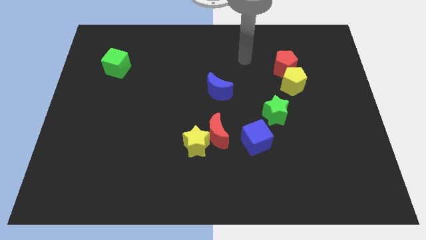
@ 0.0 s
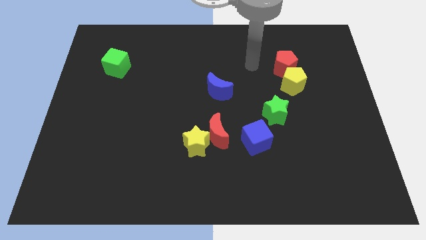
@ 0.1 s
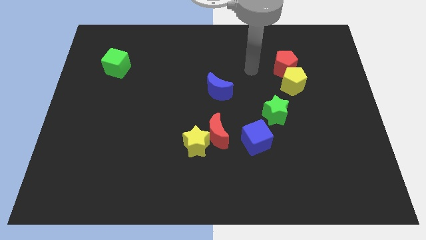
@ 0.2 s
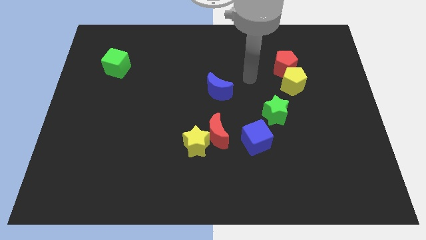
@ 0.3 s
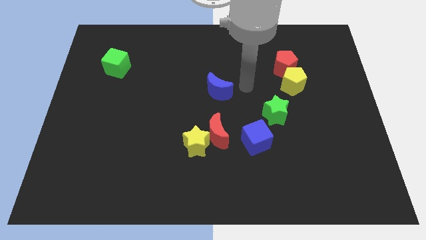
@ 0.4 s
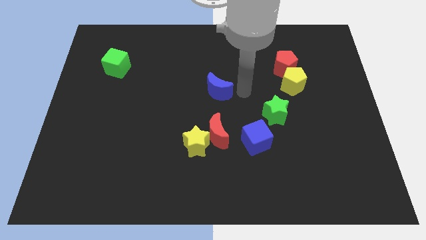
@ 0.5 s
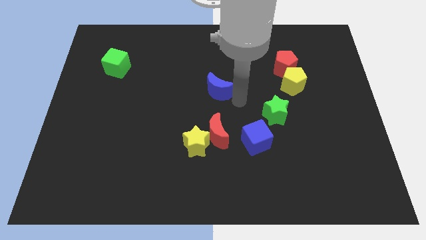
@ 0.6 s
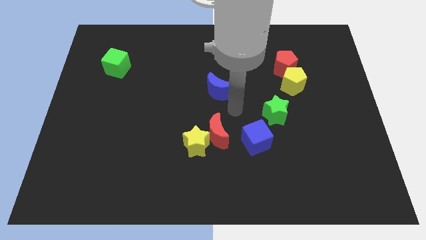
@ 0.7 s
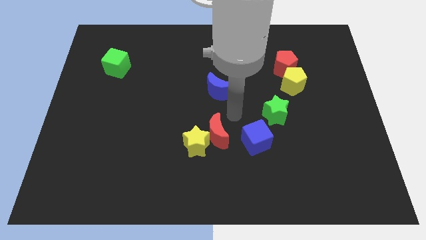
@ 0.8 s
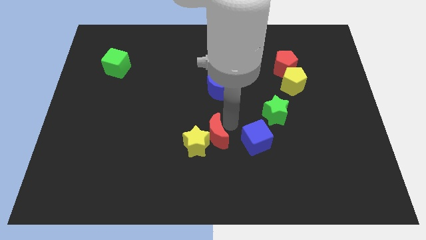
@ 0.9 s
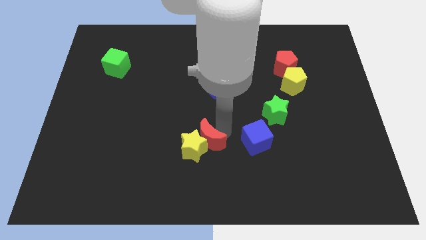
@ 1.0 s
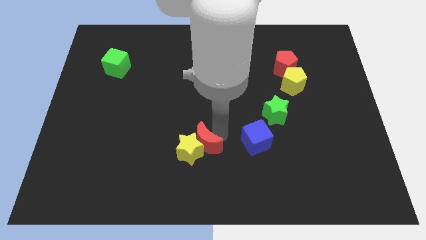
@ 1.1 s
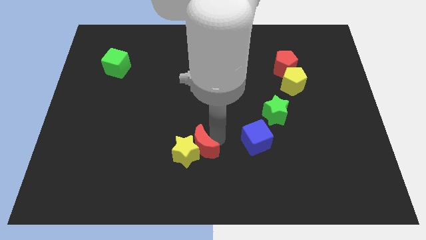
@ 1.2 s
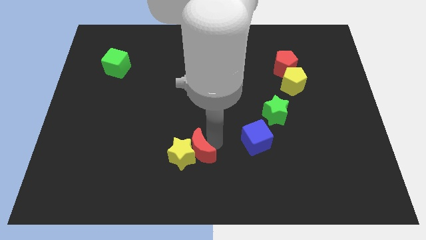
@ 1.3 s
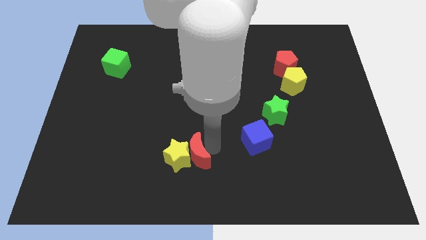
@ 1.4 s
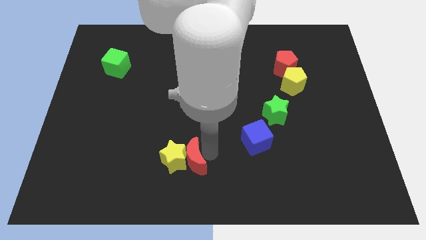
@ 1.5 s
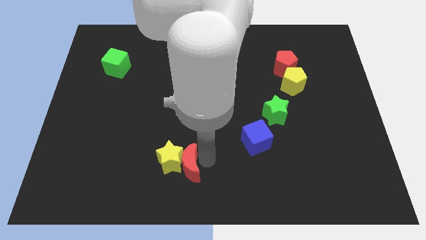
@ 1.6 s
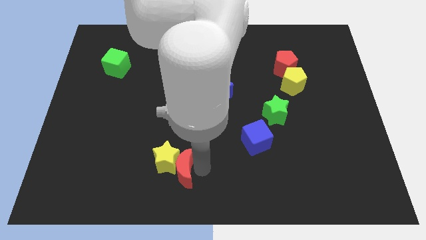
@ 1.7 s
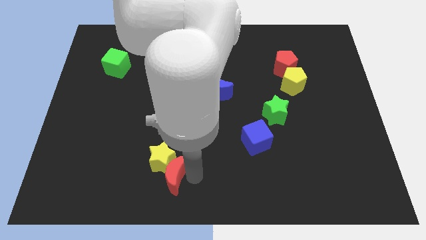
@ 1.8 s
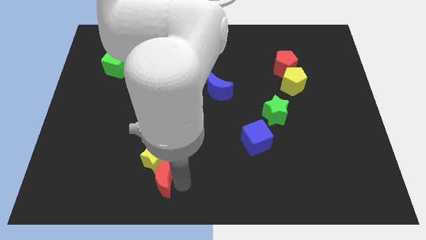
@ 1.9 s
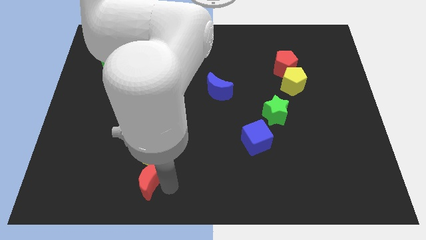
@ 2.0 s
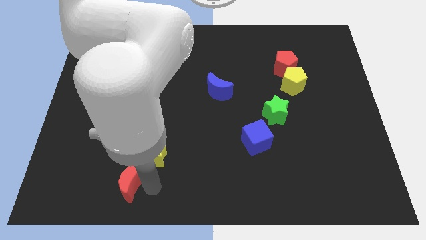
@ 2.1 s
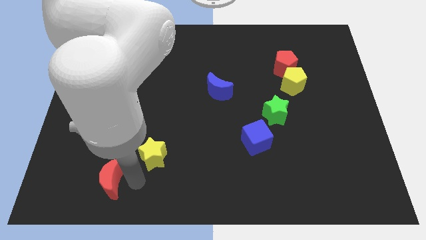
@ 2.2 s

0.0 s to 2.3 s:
pull the yellow star apart from the red moon

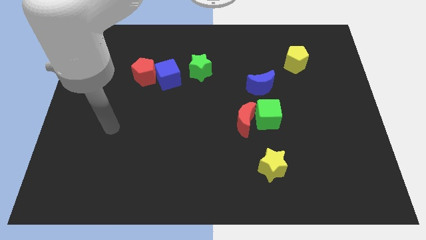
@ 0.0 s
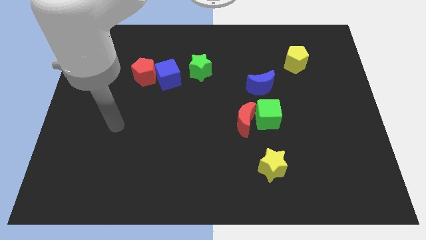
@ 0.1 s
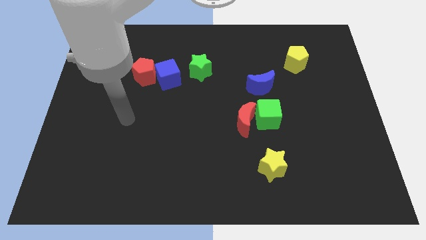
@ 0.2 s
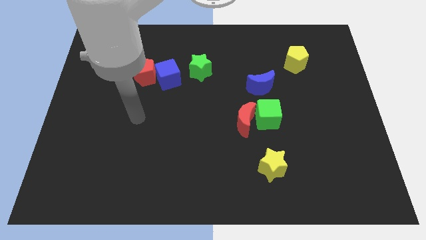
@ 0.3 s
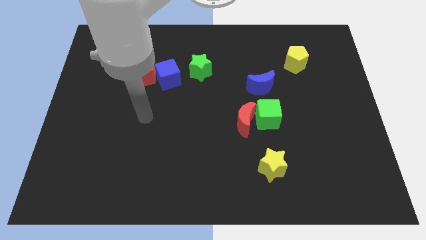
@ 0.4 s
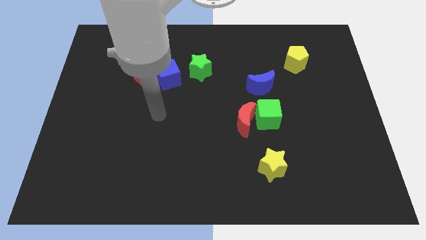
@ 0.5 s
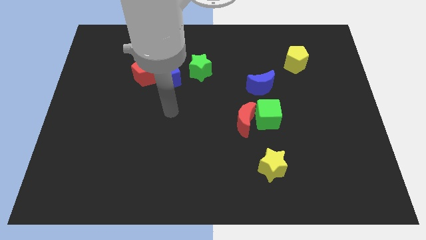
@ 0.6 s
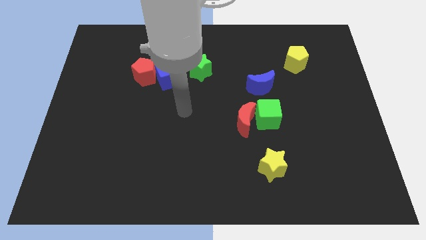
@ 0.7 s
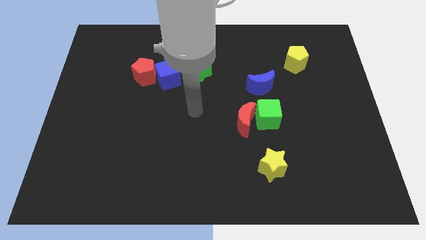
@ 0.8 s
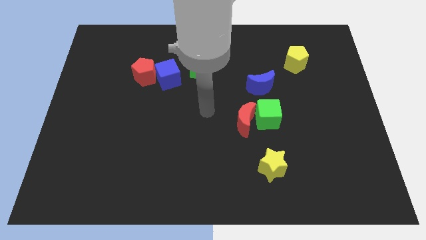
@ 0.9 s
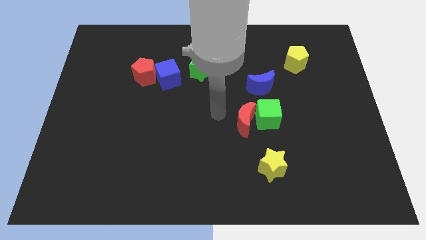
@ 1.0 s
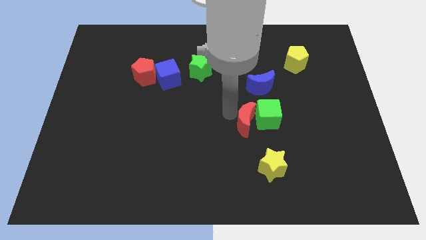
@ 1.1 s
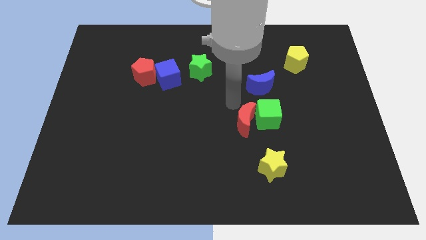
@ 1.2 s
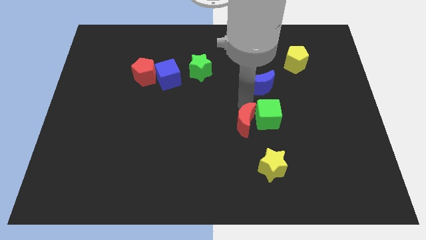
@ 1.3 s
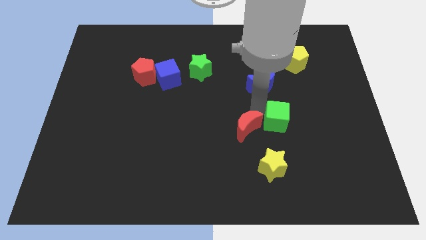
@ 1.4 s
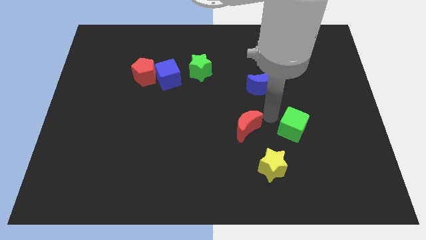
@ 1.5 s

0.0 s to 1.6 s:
move the red moon away from the green cube

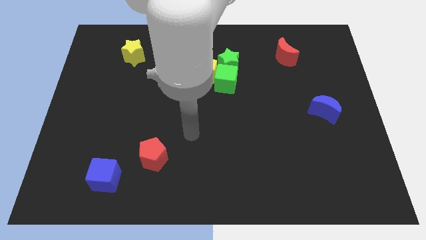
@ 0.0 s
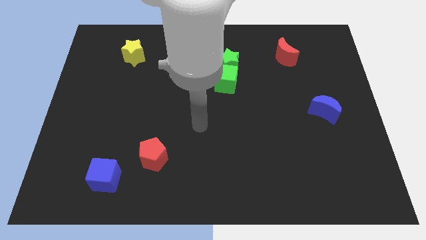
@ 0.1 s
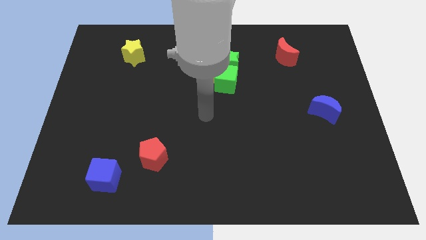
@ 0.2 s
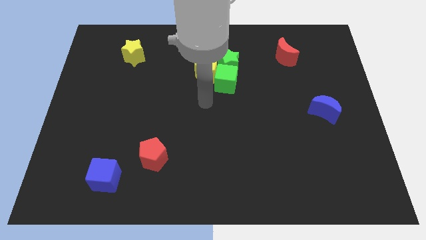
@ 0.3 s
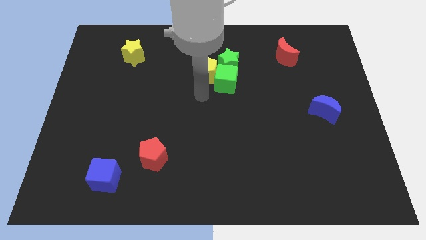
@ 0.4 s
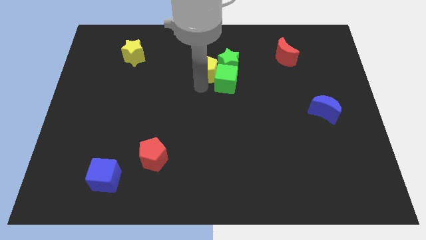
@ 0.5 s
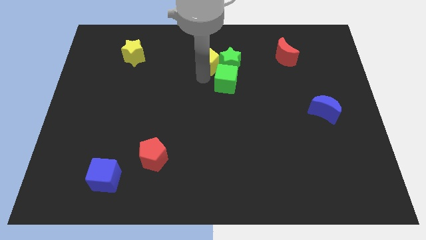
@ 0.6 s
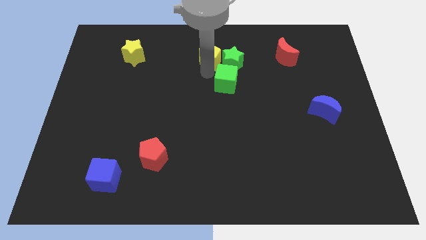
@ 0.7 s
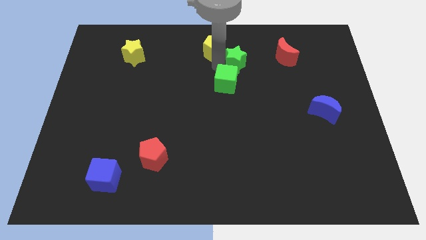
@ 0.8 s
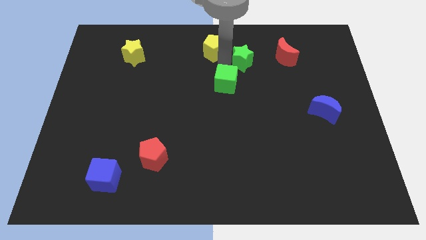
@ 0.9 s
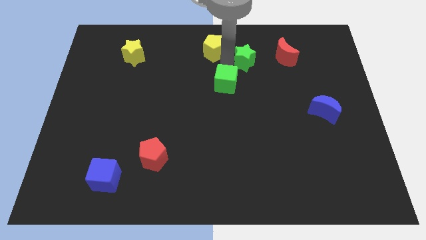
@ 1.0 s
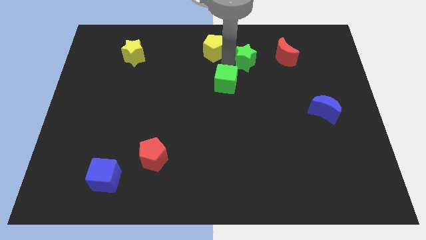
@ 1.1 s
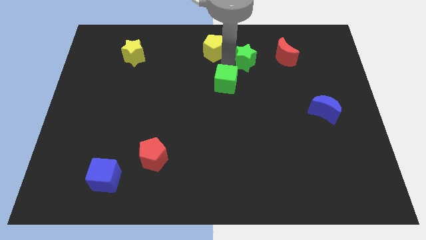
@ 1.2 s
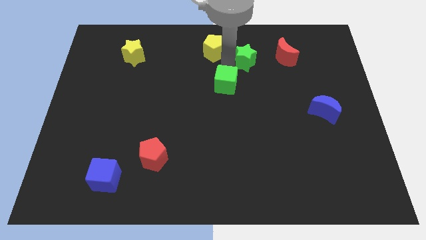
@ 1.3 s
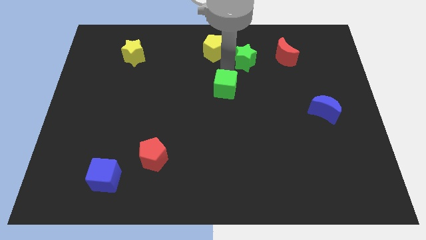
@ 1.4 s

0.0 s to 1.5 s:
separate the green cube from the yellow pentagon and green star

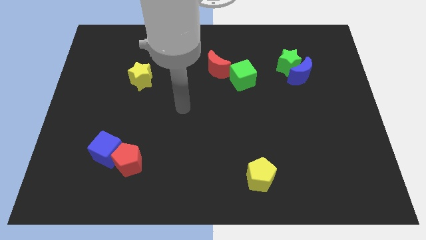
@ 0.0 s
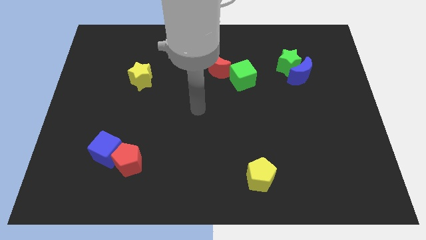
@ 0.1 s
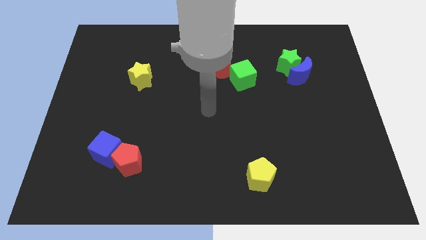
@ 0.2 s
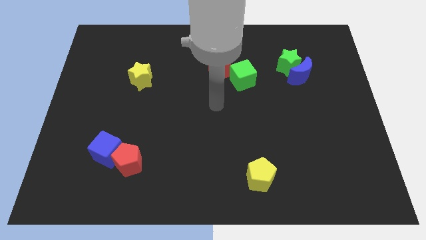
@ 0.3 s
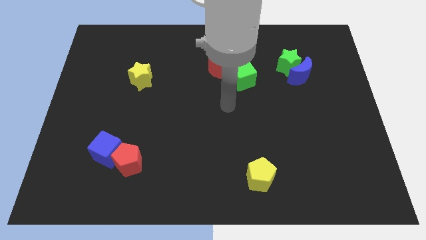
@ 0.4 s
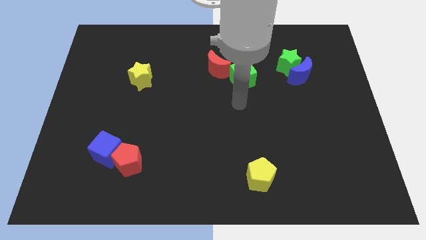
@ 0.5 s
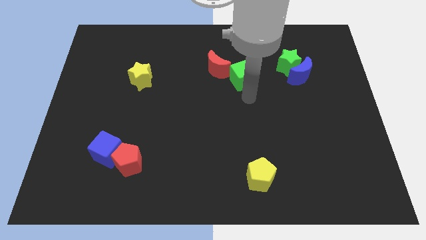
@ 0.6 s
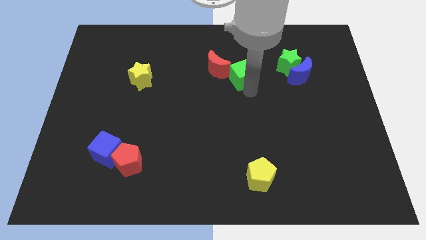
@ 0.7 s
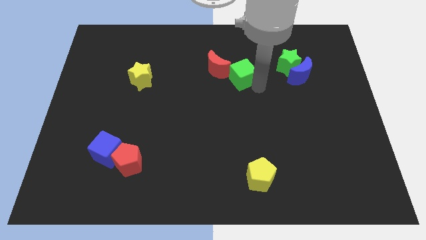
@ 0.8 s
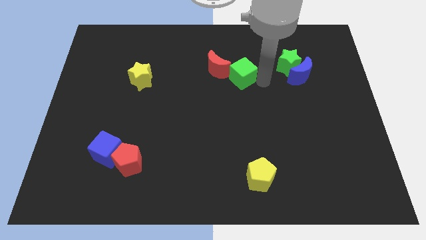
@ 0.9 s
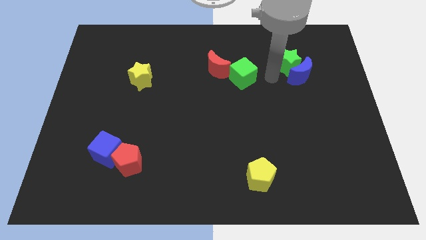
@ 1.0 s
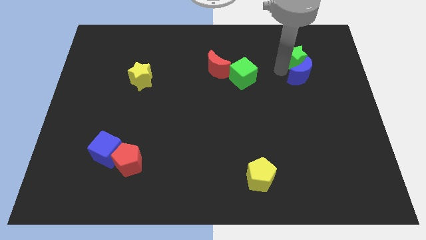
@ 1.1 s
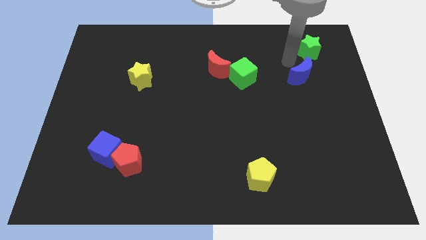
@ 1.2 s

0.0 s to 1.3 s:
separate the blue moon from the green star

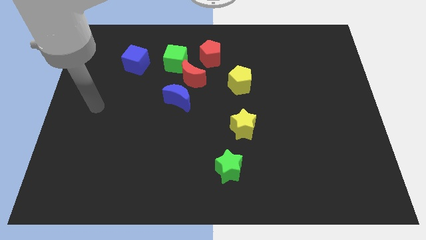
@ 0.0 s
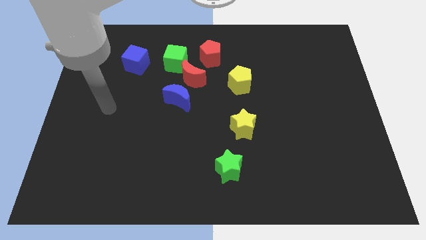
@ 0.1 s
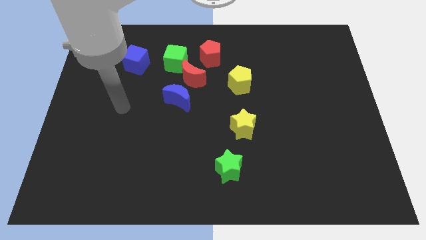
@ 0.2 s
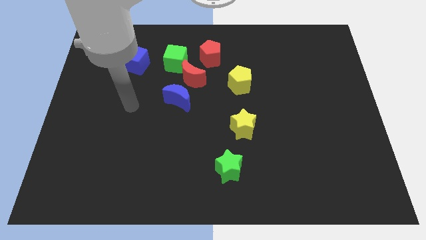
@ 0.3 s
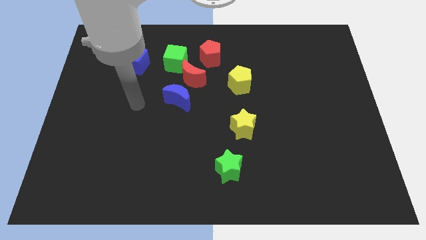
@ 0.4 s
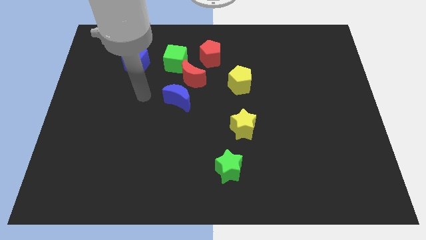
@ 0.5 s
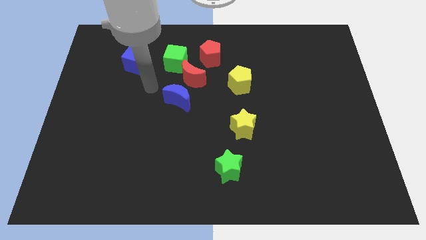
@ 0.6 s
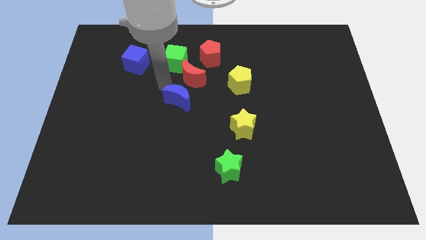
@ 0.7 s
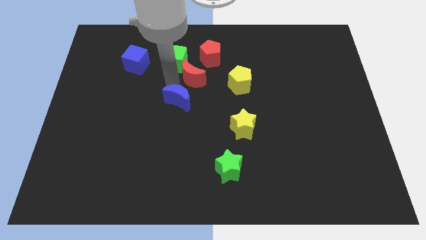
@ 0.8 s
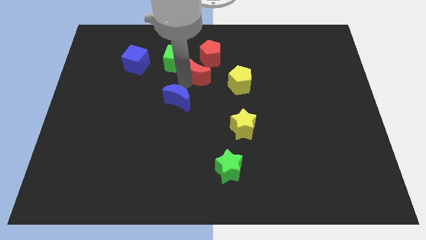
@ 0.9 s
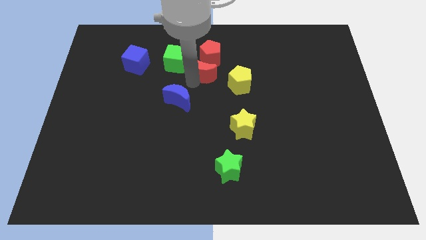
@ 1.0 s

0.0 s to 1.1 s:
move the blue moon away from the red moon

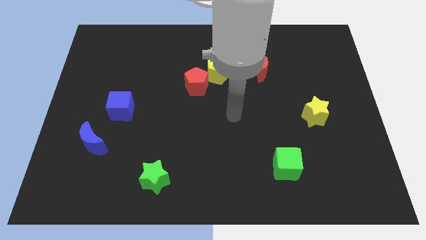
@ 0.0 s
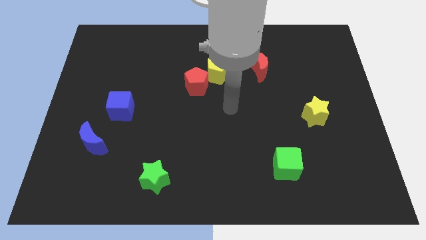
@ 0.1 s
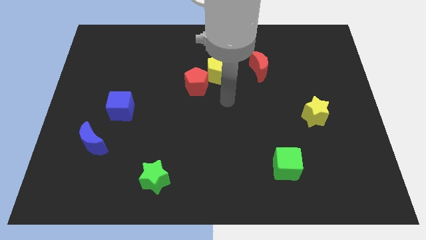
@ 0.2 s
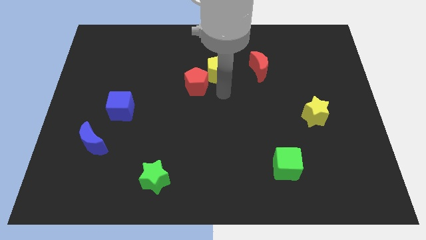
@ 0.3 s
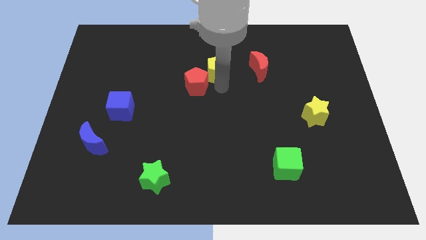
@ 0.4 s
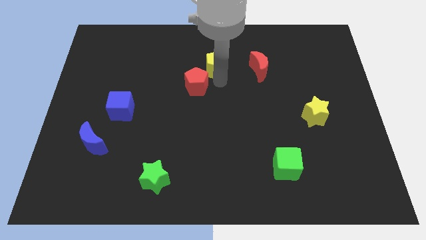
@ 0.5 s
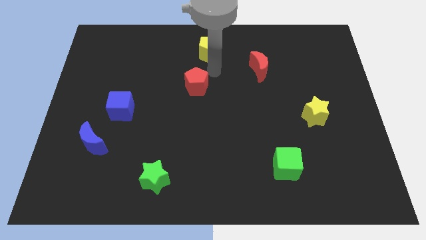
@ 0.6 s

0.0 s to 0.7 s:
separate the red pentagon from the yellow pentagon

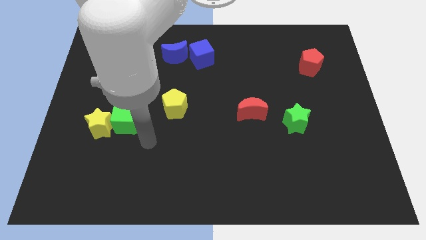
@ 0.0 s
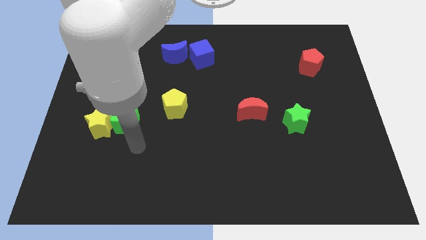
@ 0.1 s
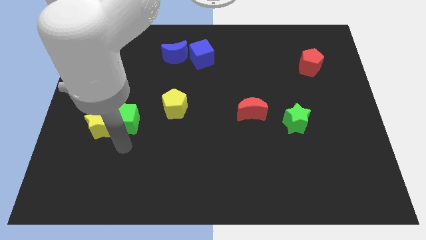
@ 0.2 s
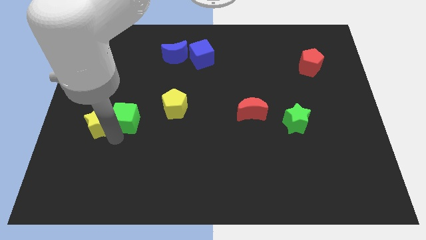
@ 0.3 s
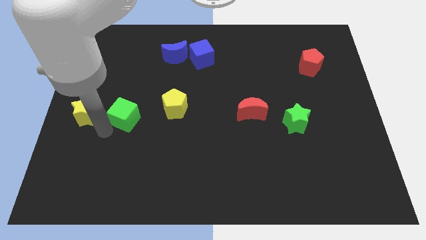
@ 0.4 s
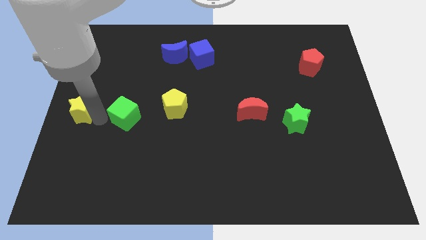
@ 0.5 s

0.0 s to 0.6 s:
move the green cube away from the yellow star

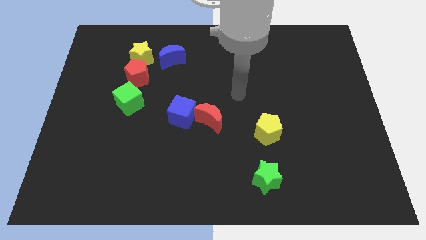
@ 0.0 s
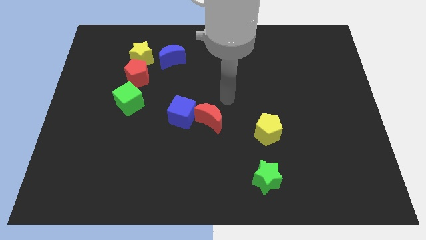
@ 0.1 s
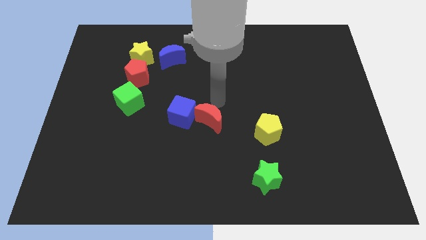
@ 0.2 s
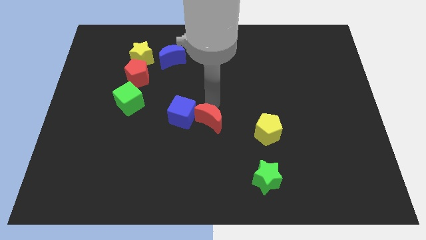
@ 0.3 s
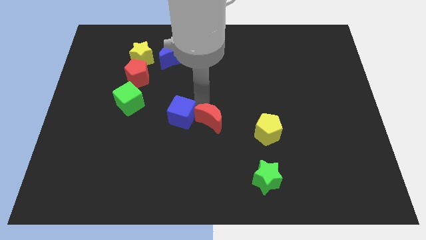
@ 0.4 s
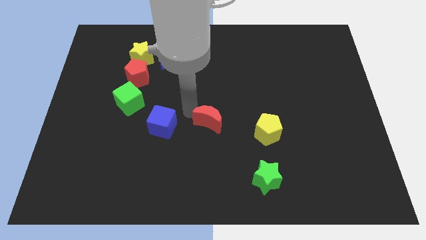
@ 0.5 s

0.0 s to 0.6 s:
separate the red moon from the blue cube